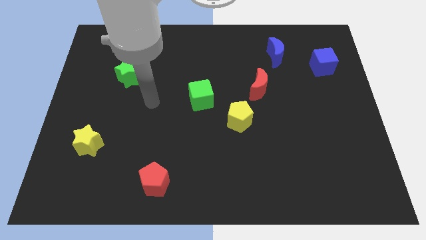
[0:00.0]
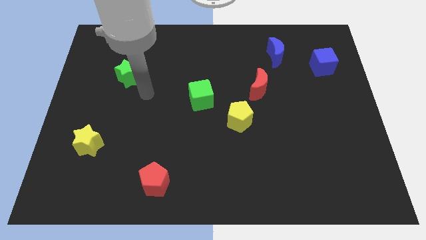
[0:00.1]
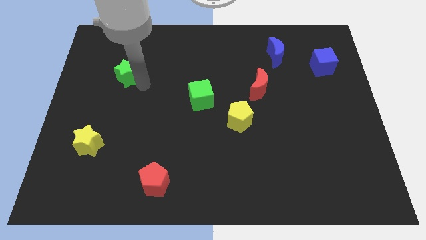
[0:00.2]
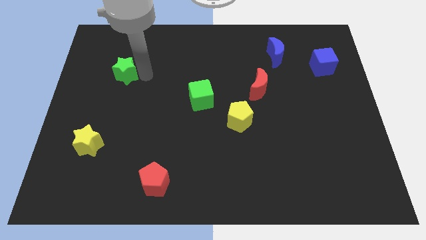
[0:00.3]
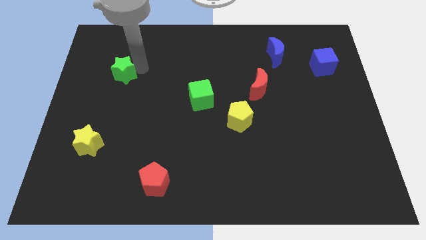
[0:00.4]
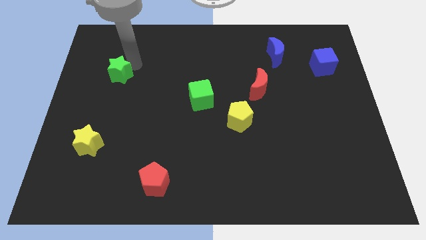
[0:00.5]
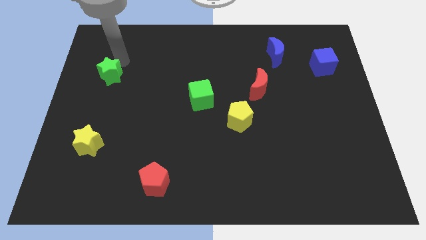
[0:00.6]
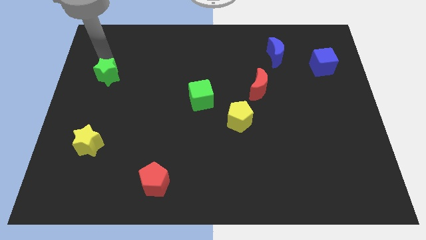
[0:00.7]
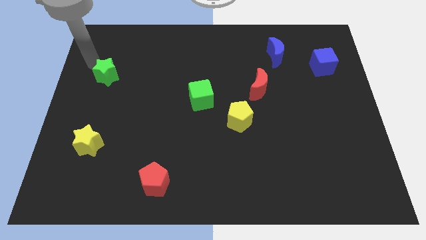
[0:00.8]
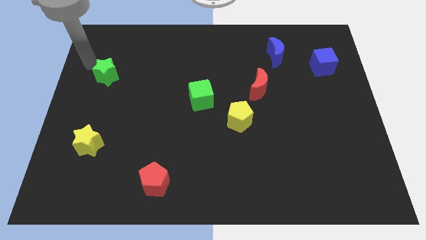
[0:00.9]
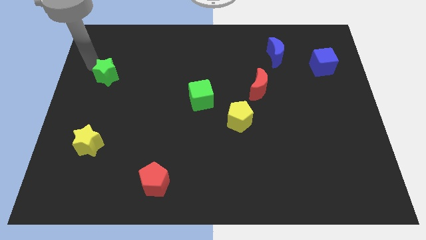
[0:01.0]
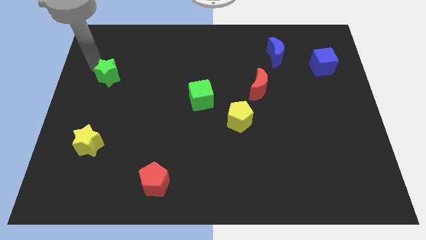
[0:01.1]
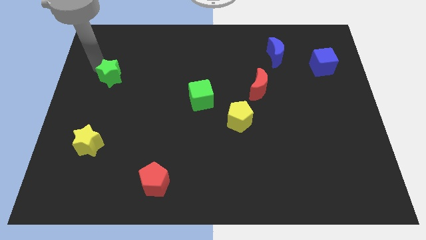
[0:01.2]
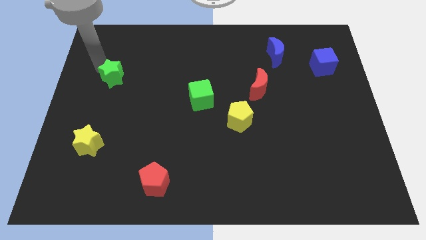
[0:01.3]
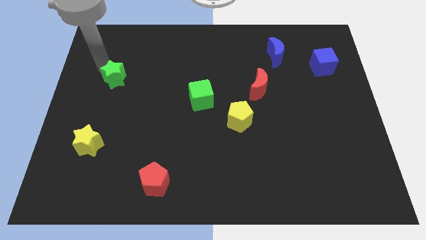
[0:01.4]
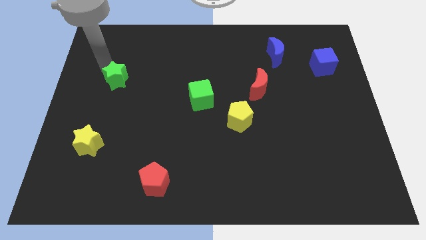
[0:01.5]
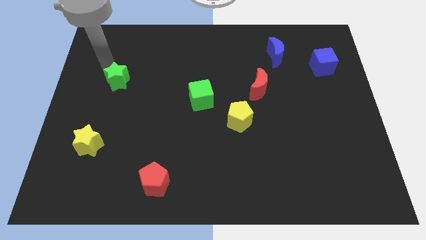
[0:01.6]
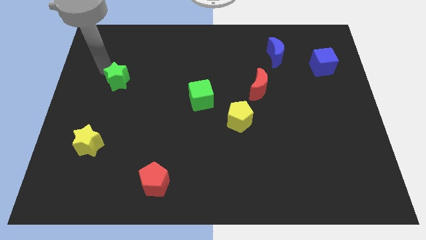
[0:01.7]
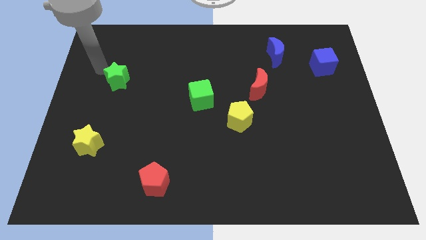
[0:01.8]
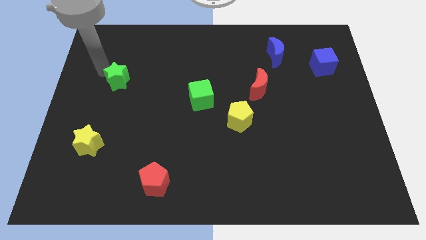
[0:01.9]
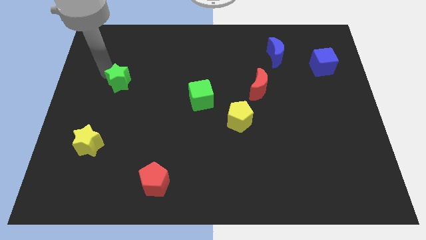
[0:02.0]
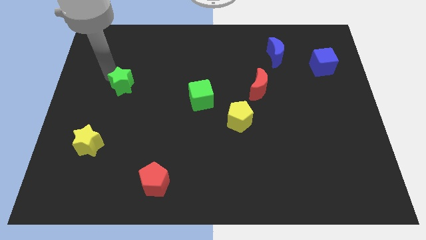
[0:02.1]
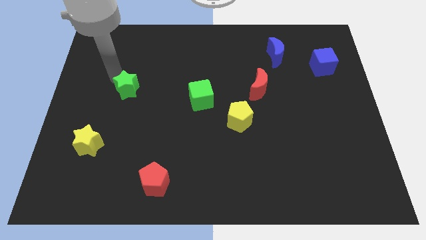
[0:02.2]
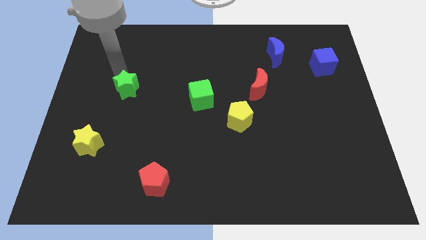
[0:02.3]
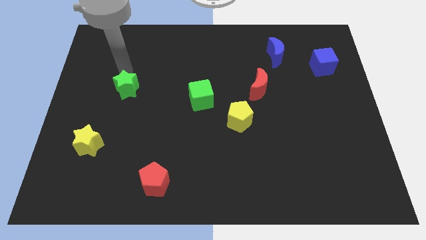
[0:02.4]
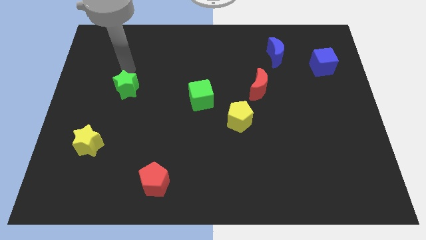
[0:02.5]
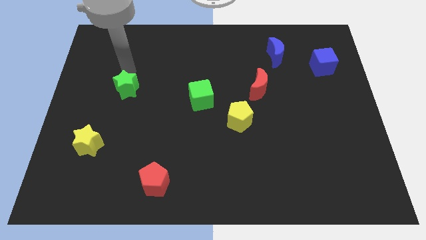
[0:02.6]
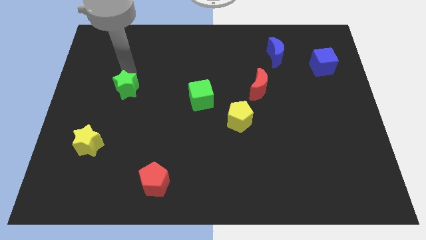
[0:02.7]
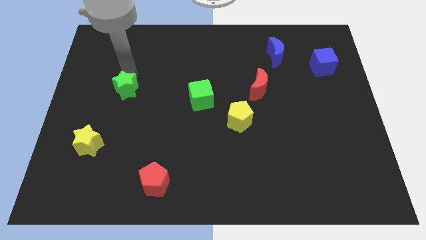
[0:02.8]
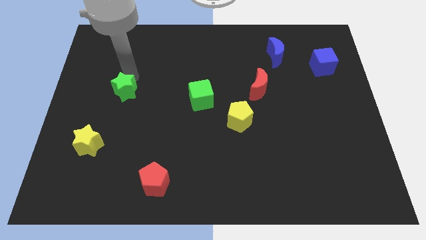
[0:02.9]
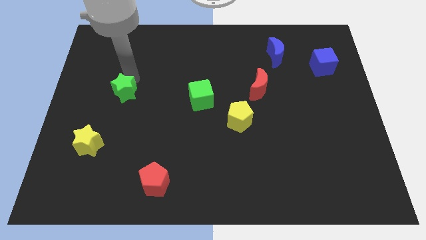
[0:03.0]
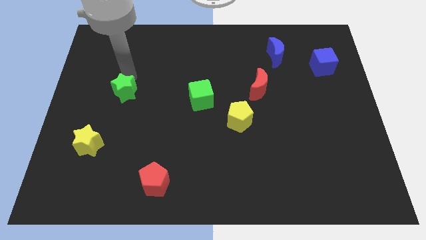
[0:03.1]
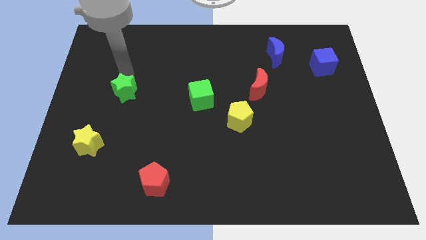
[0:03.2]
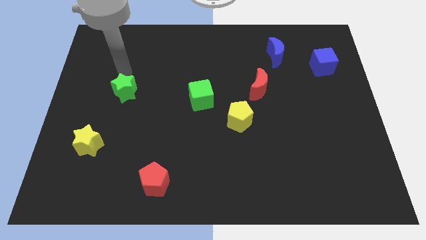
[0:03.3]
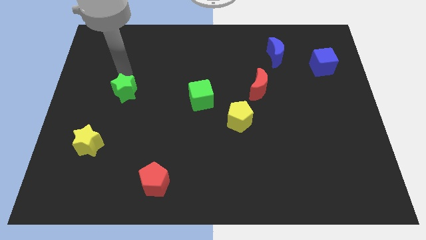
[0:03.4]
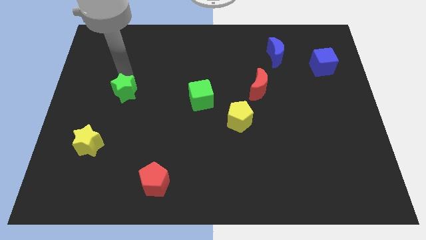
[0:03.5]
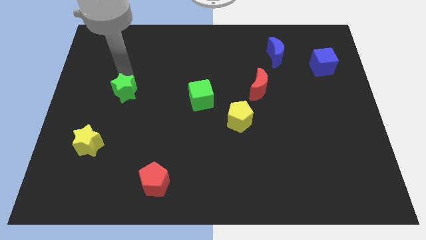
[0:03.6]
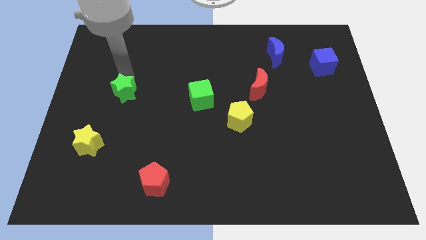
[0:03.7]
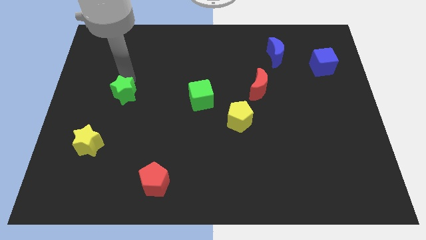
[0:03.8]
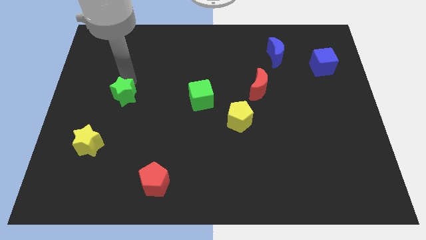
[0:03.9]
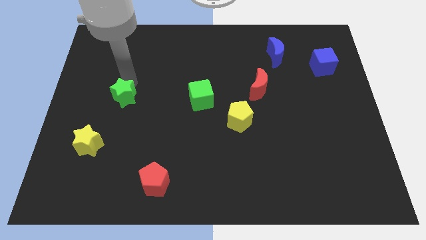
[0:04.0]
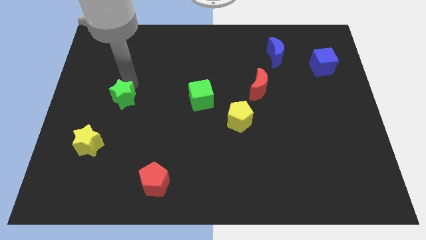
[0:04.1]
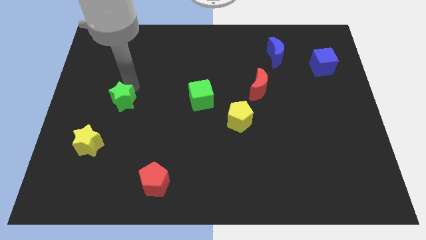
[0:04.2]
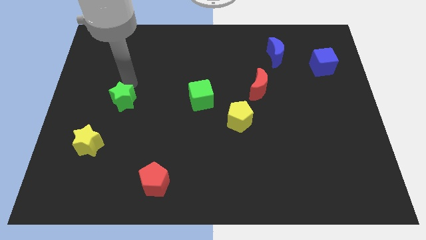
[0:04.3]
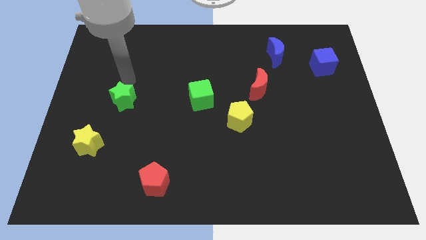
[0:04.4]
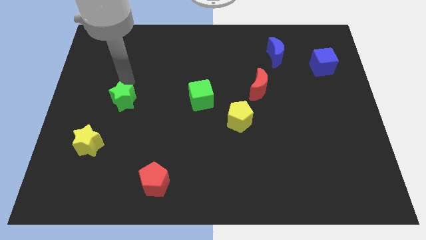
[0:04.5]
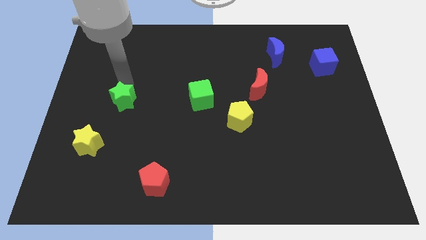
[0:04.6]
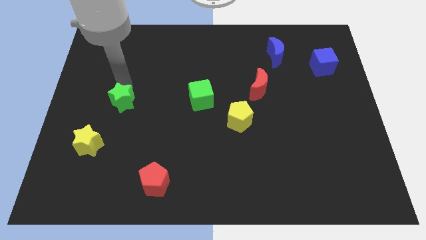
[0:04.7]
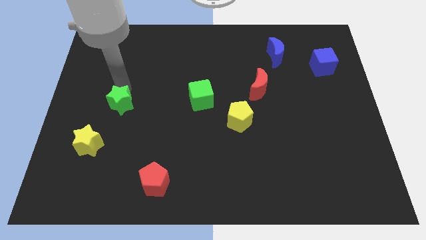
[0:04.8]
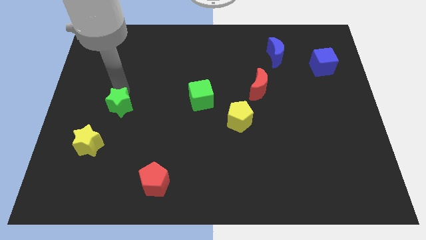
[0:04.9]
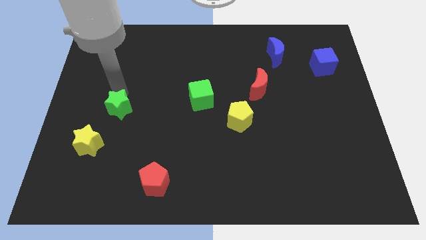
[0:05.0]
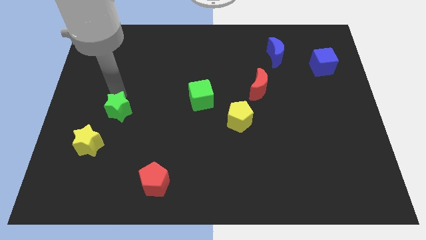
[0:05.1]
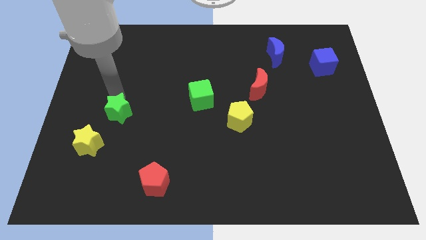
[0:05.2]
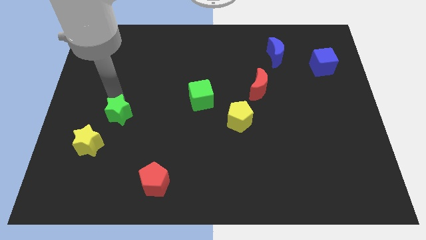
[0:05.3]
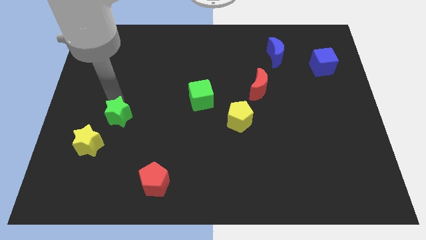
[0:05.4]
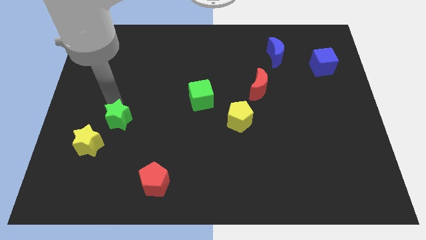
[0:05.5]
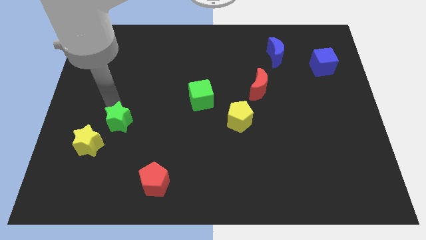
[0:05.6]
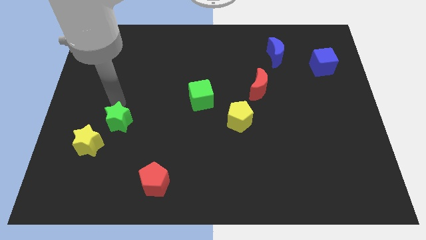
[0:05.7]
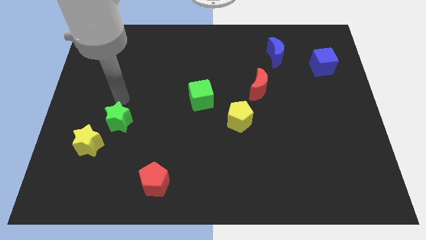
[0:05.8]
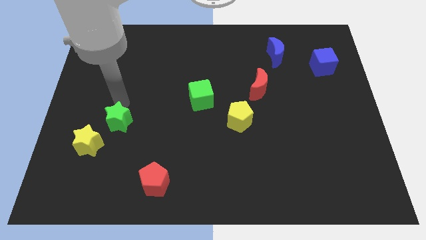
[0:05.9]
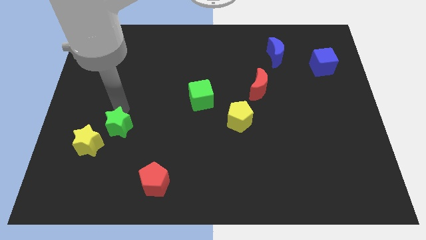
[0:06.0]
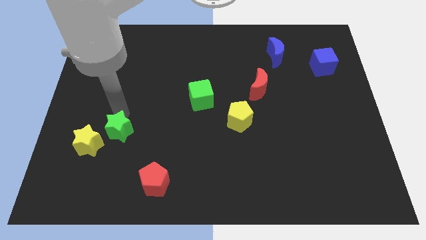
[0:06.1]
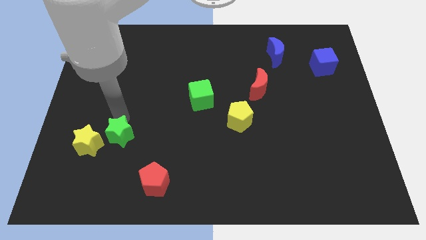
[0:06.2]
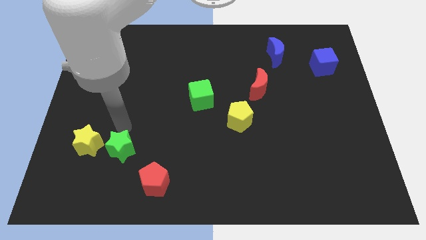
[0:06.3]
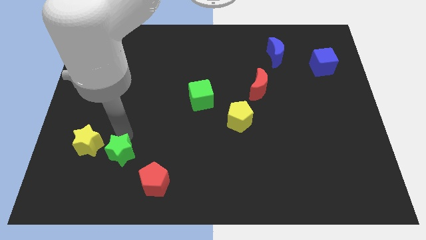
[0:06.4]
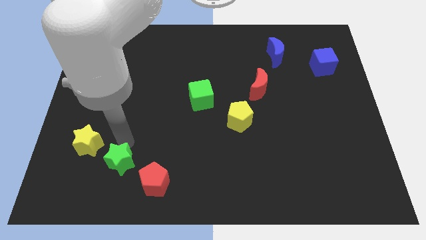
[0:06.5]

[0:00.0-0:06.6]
slide the green star left of the red pentagon

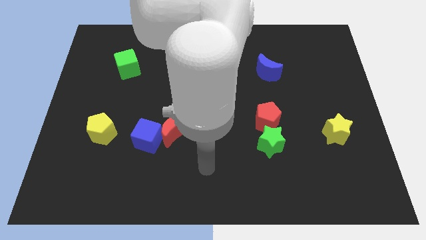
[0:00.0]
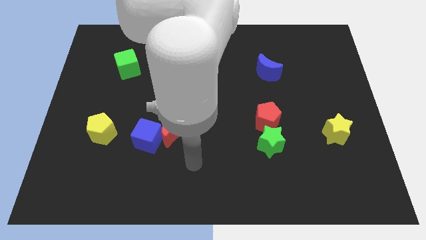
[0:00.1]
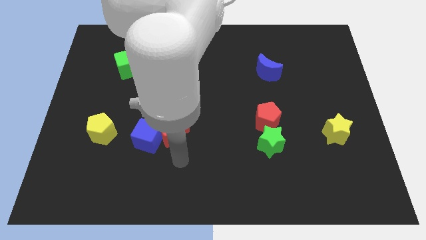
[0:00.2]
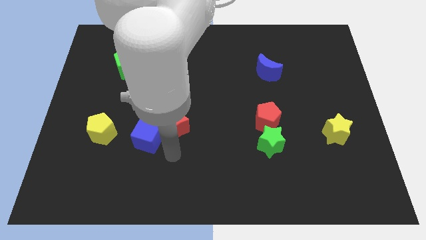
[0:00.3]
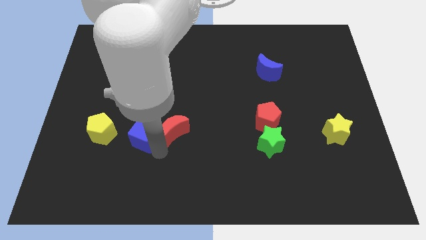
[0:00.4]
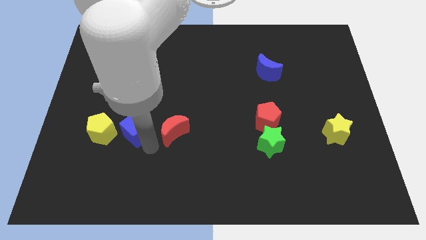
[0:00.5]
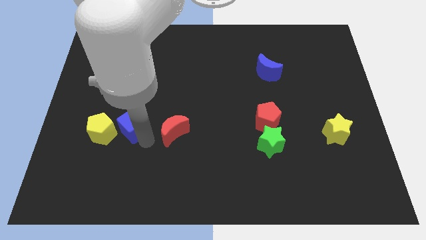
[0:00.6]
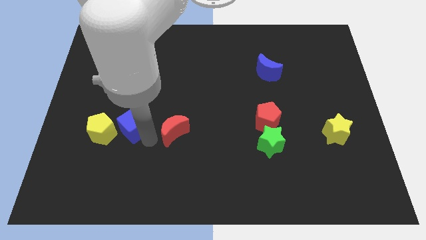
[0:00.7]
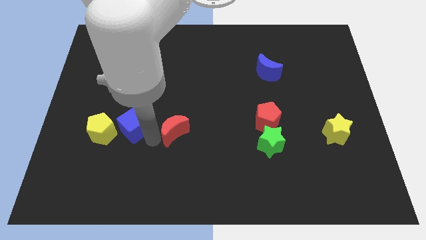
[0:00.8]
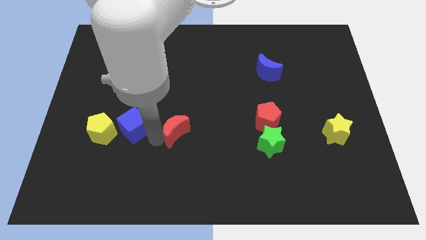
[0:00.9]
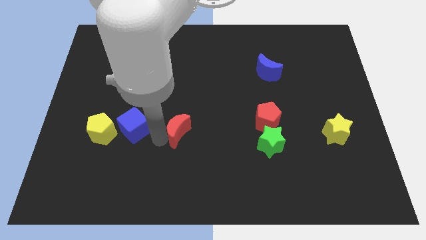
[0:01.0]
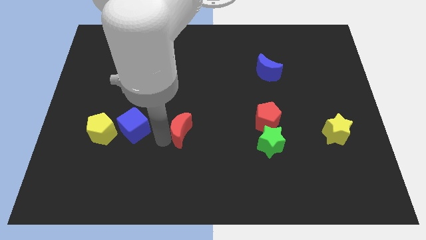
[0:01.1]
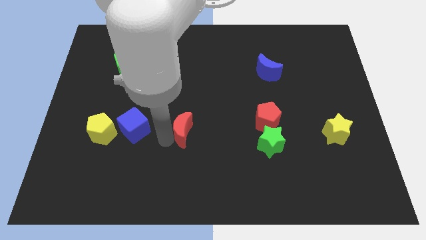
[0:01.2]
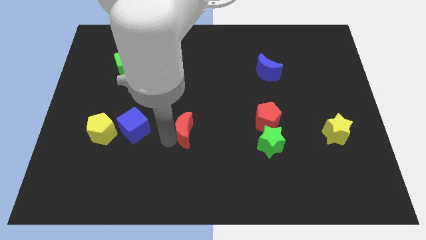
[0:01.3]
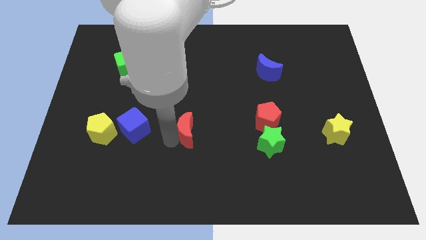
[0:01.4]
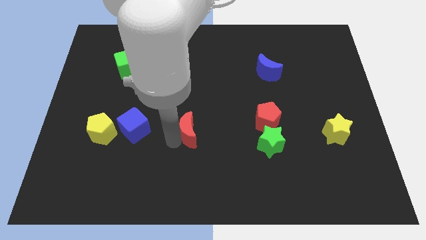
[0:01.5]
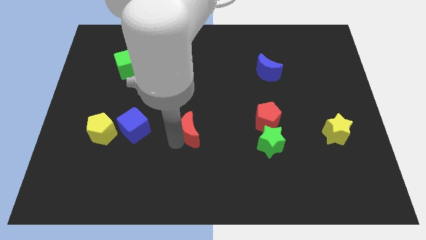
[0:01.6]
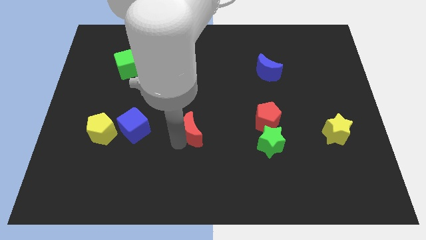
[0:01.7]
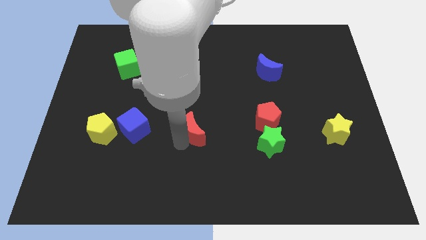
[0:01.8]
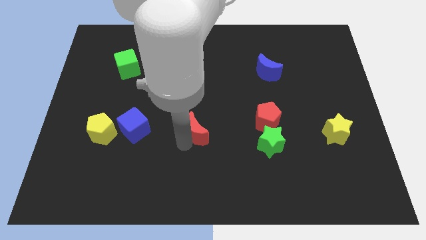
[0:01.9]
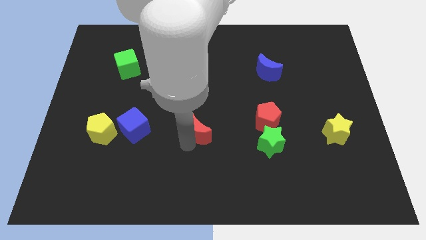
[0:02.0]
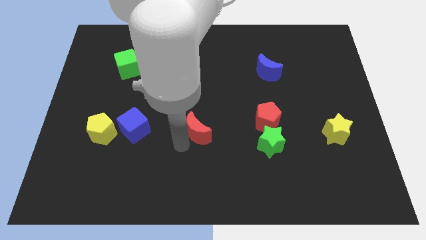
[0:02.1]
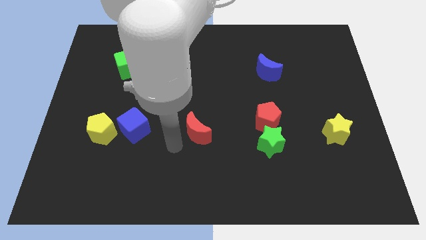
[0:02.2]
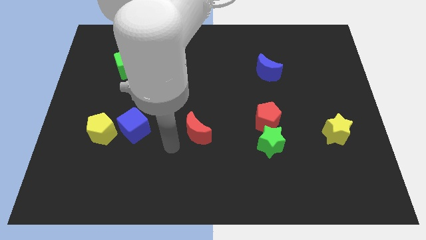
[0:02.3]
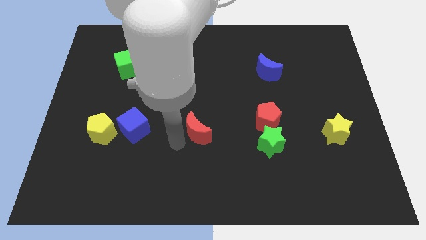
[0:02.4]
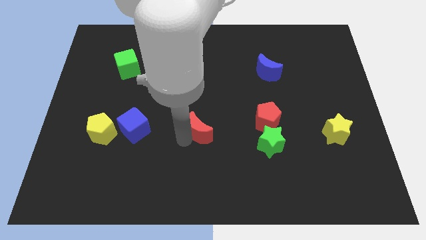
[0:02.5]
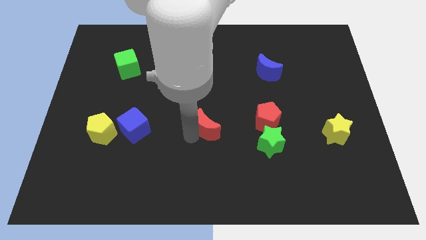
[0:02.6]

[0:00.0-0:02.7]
put the red moon left of the red pentagon
